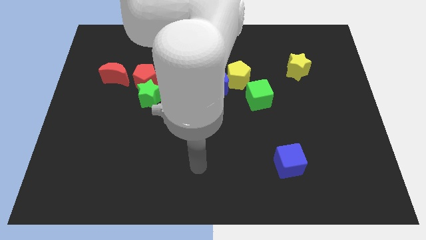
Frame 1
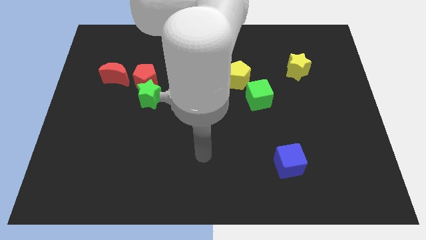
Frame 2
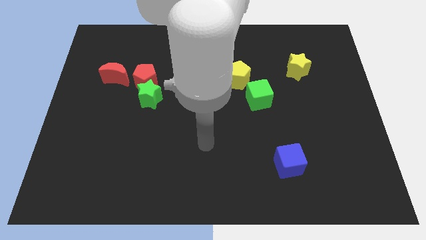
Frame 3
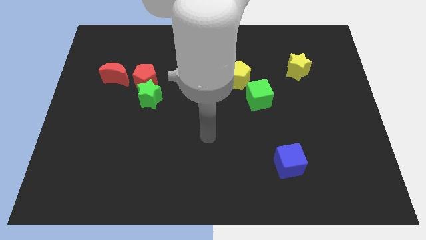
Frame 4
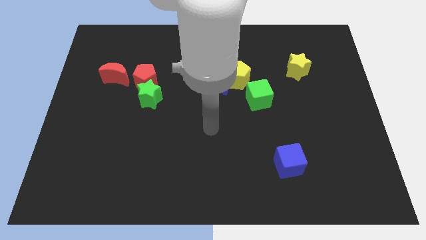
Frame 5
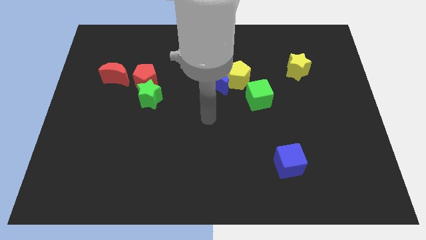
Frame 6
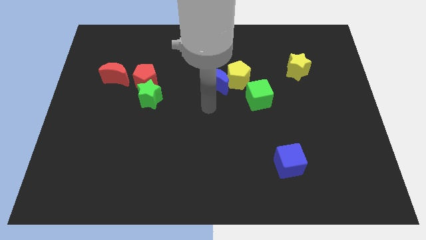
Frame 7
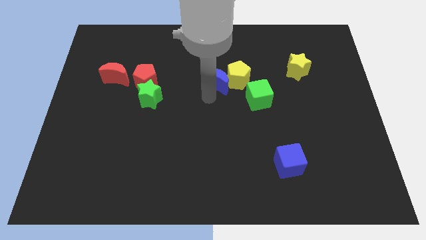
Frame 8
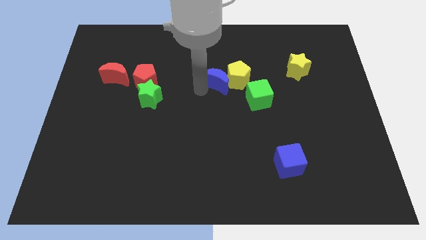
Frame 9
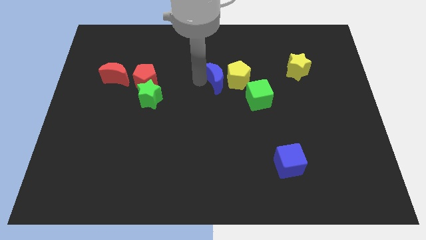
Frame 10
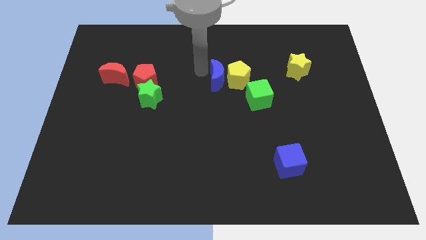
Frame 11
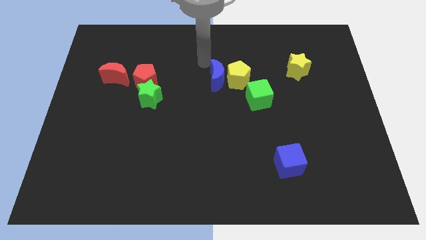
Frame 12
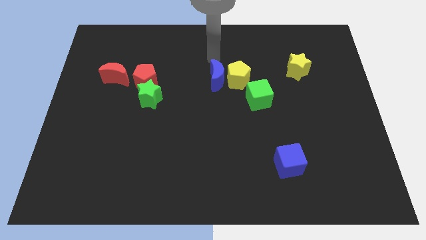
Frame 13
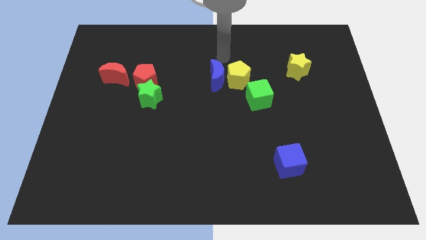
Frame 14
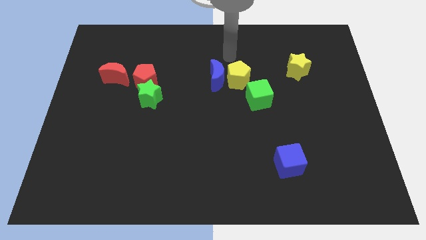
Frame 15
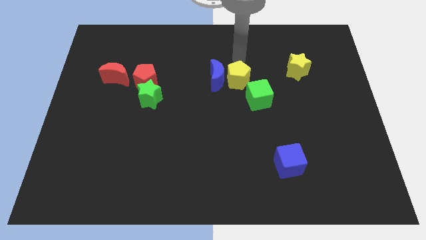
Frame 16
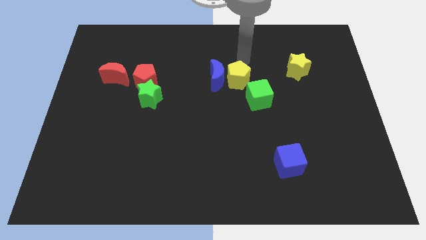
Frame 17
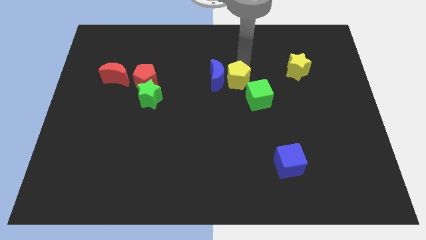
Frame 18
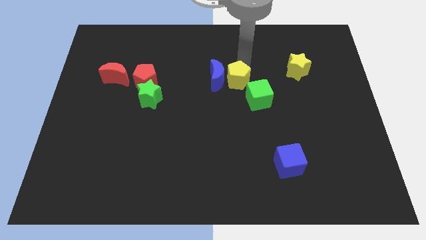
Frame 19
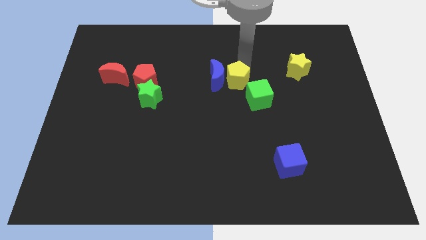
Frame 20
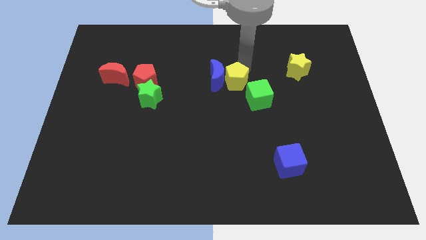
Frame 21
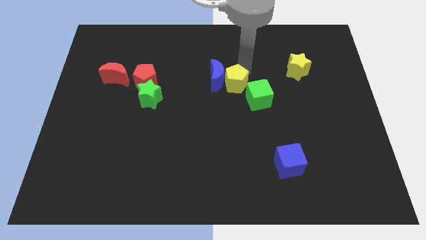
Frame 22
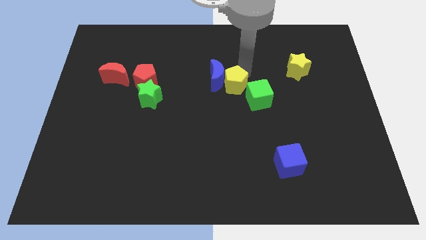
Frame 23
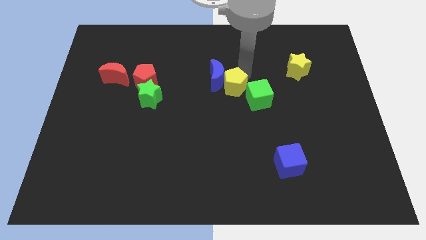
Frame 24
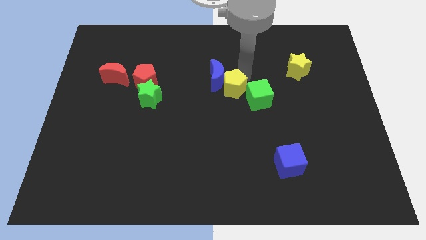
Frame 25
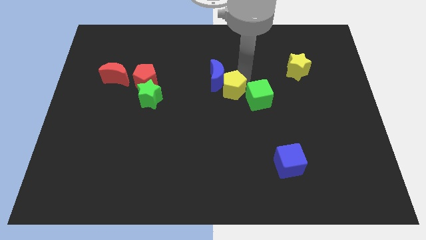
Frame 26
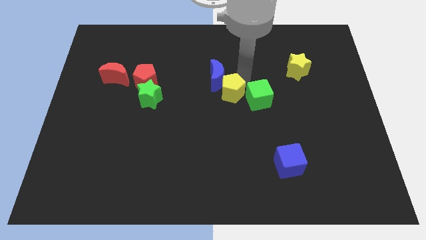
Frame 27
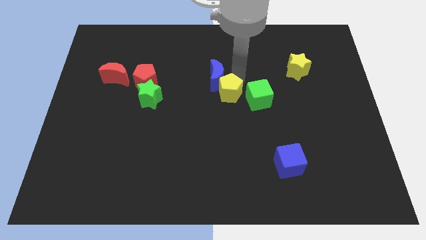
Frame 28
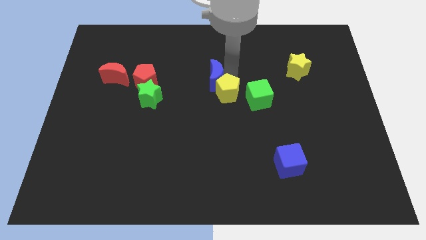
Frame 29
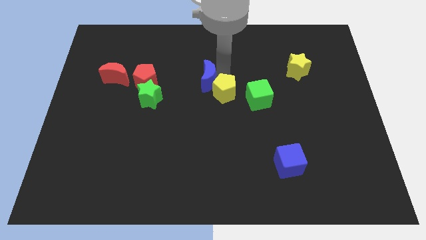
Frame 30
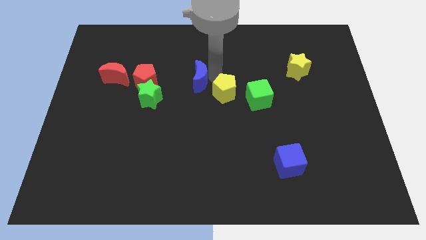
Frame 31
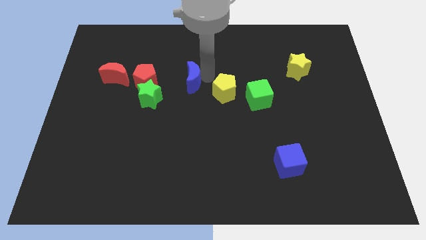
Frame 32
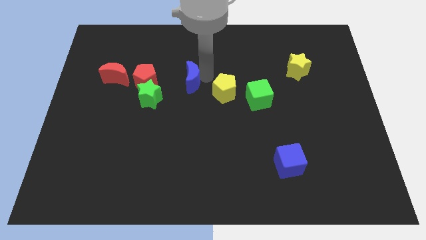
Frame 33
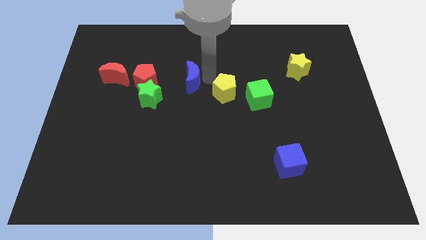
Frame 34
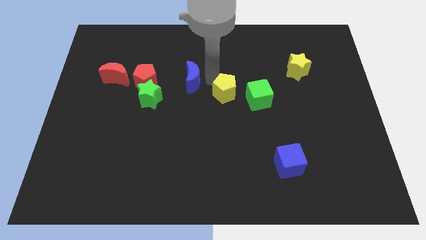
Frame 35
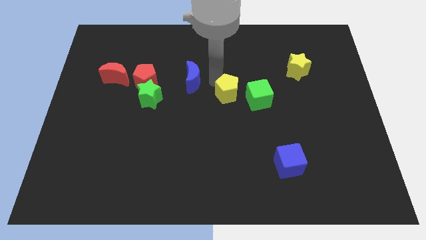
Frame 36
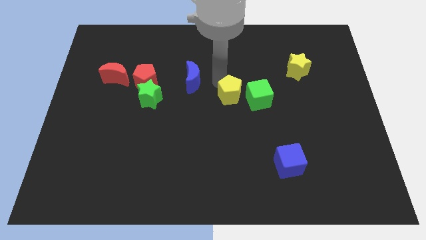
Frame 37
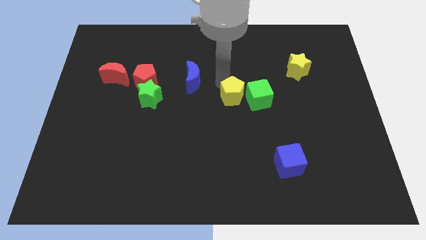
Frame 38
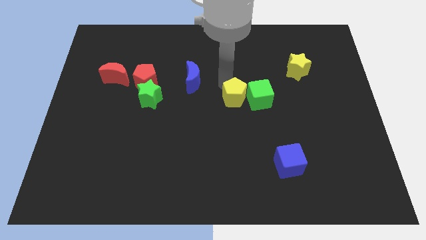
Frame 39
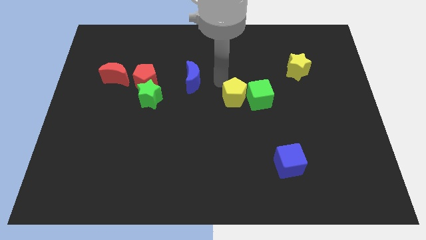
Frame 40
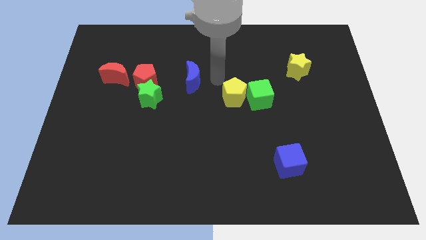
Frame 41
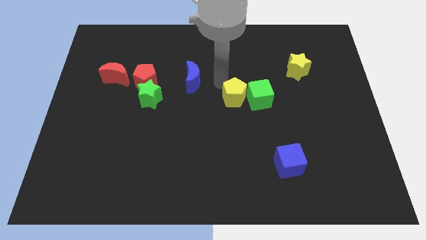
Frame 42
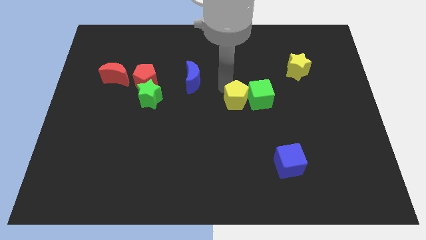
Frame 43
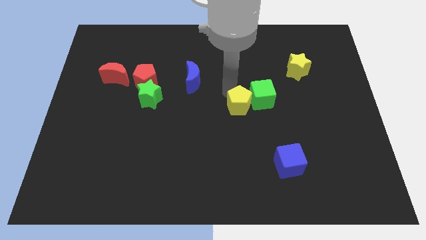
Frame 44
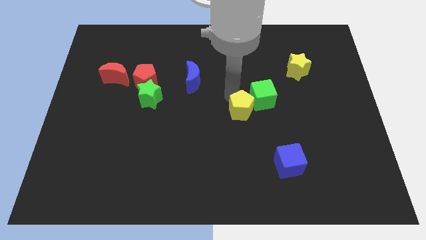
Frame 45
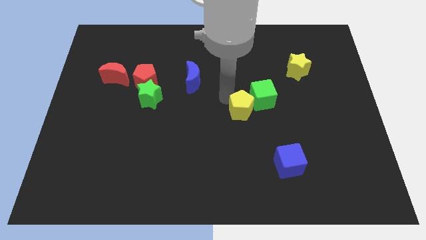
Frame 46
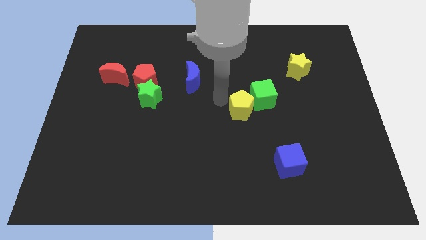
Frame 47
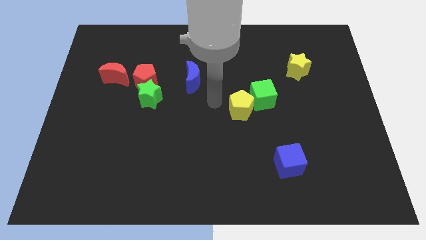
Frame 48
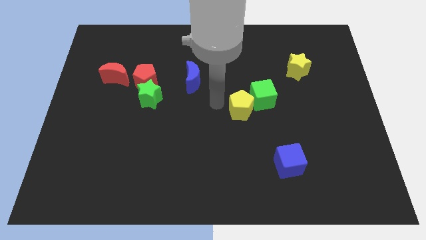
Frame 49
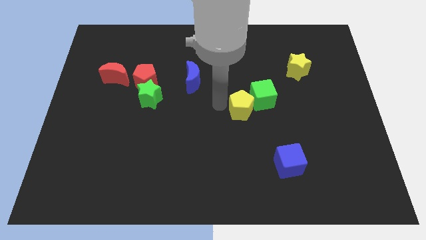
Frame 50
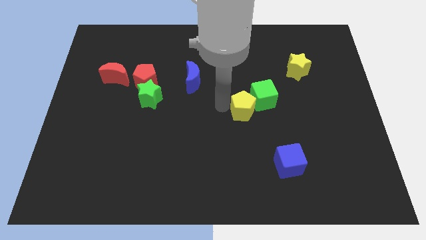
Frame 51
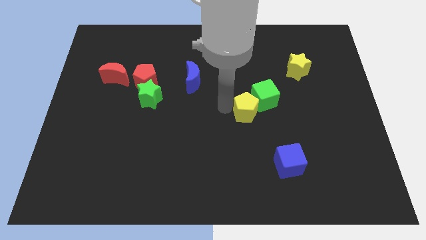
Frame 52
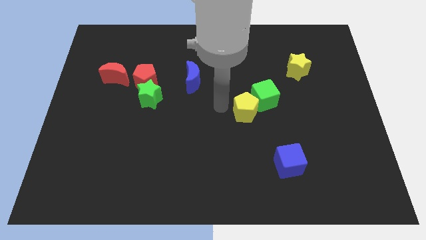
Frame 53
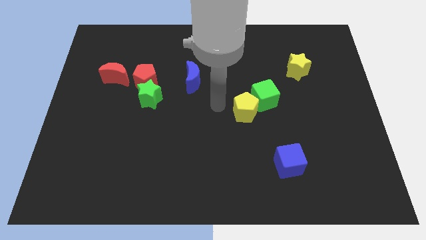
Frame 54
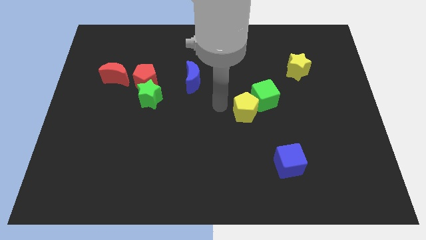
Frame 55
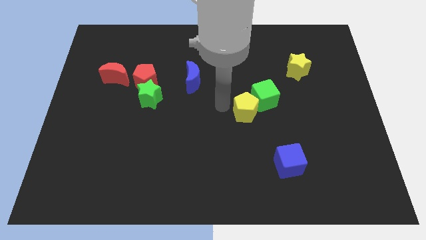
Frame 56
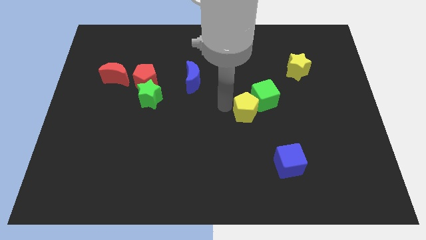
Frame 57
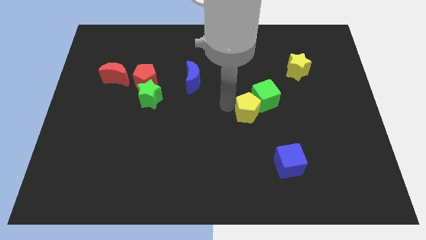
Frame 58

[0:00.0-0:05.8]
slightly slide the yellow pentagon downwards and right

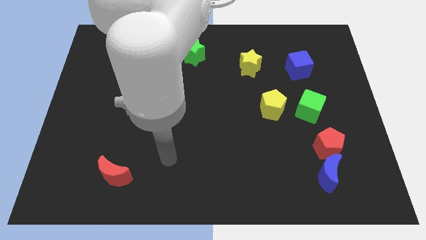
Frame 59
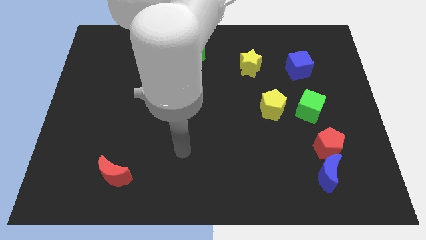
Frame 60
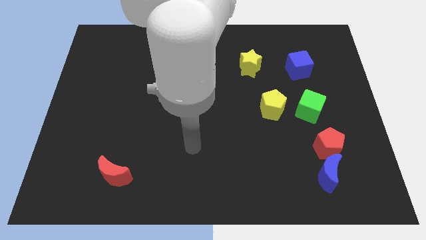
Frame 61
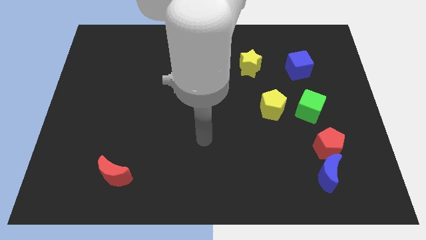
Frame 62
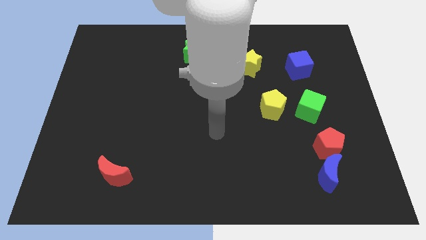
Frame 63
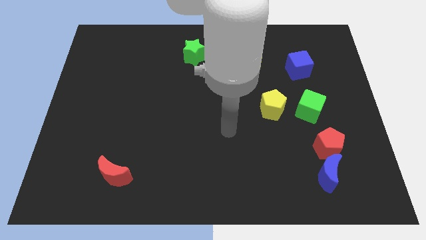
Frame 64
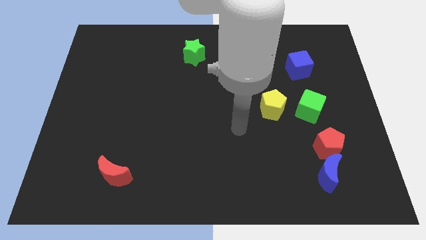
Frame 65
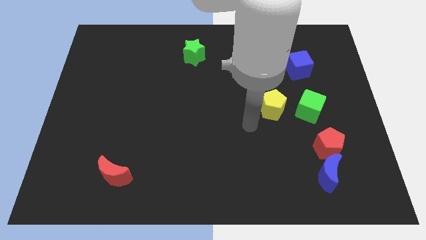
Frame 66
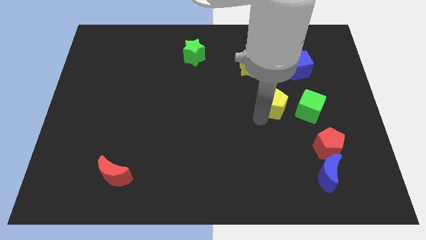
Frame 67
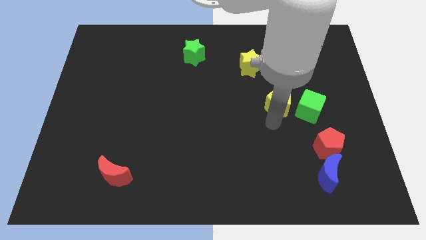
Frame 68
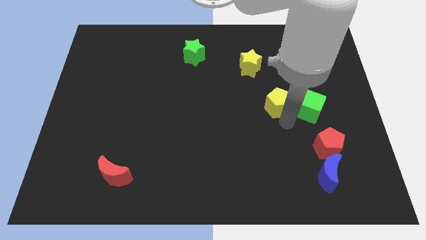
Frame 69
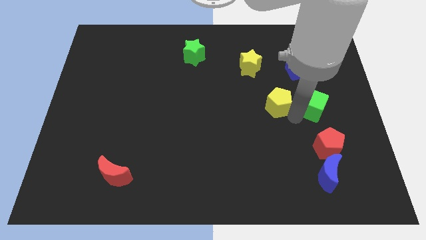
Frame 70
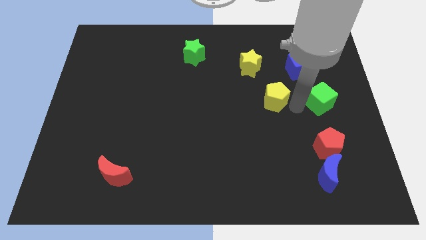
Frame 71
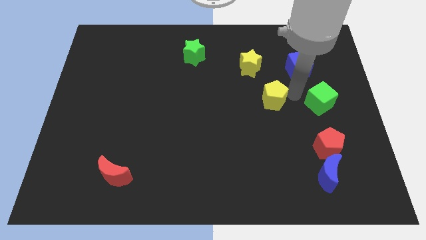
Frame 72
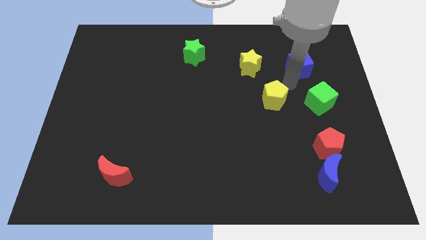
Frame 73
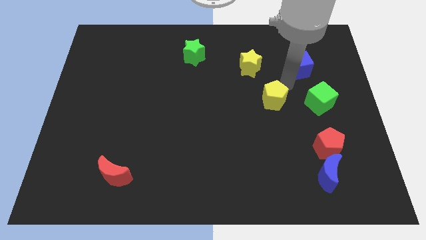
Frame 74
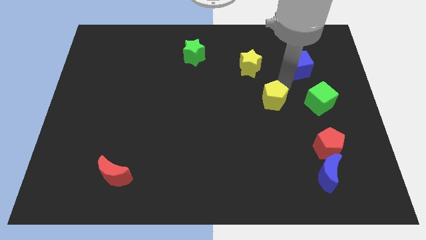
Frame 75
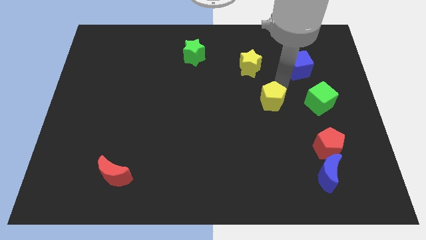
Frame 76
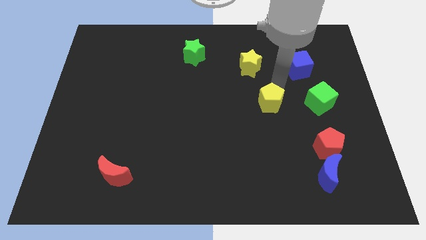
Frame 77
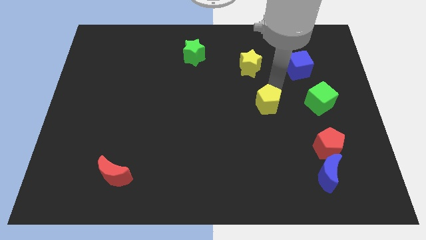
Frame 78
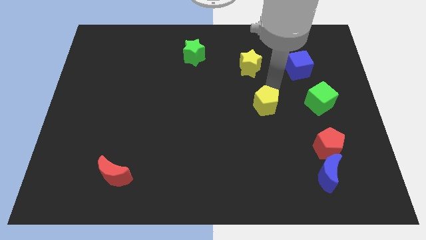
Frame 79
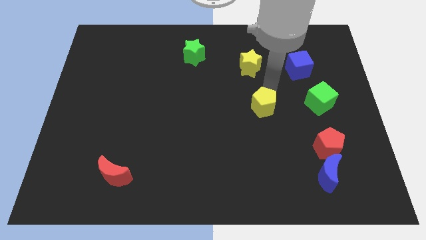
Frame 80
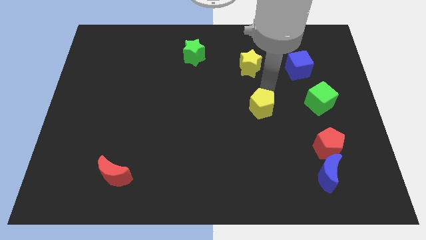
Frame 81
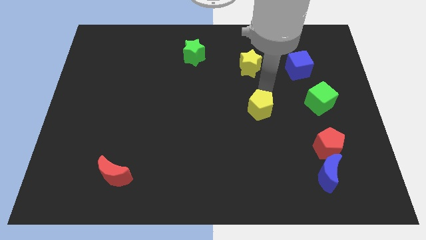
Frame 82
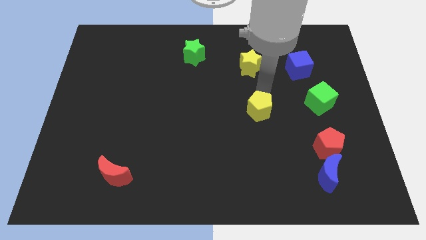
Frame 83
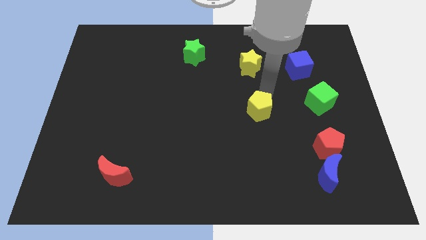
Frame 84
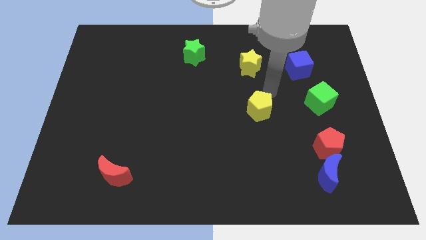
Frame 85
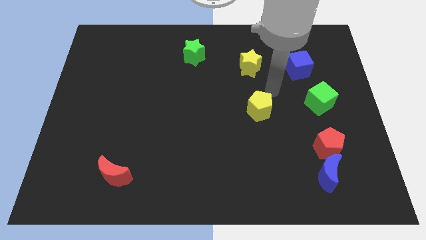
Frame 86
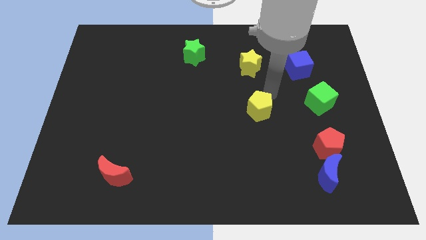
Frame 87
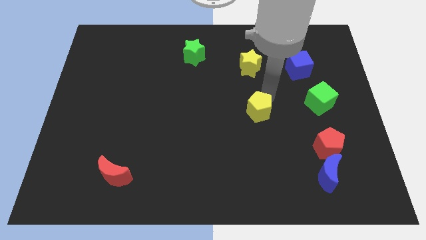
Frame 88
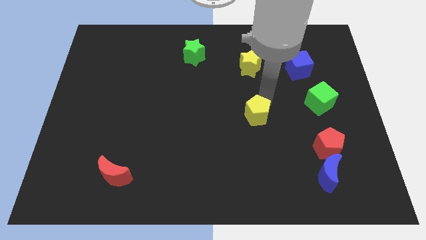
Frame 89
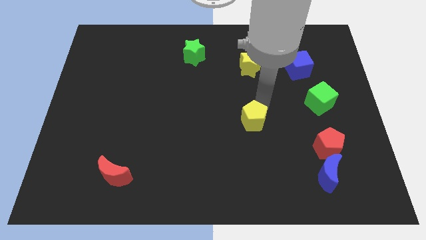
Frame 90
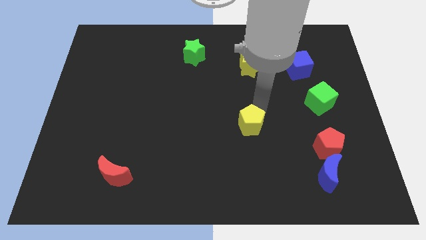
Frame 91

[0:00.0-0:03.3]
slightly slide the yellow pentagon downwards and then to the left
